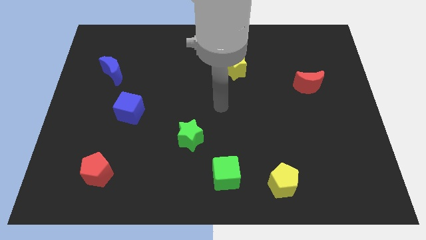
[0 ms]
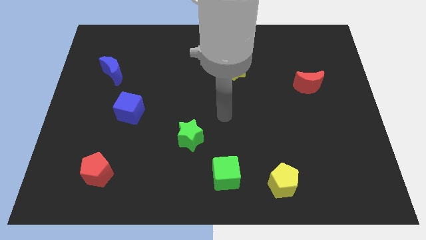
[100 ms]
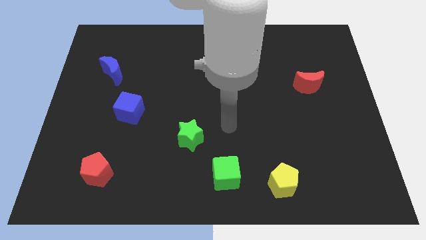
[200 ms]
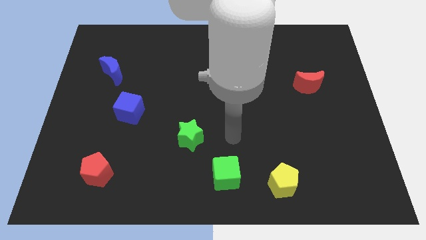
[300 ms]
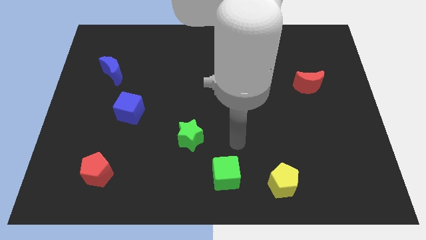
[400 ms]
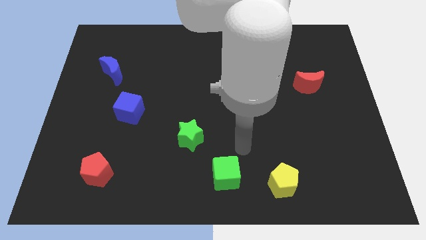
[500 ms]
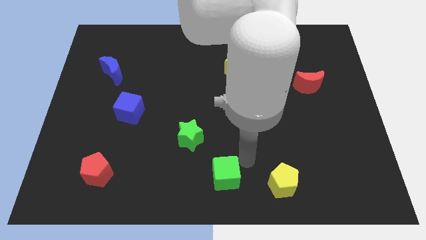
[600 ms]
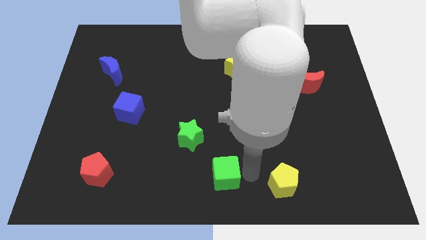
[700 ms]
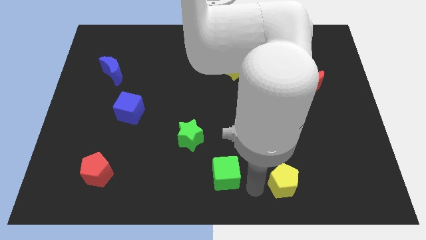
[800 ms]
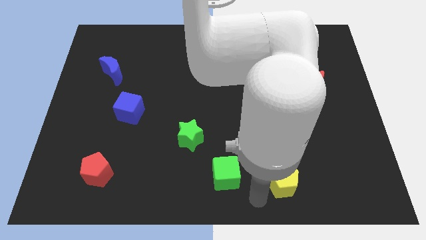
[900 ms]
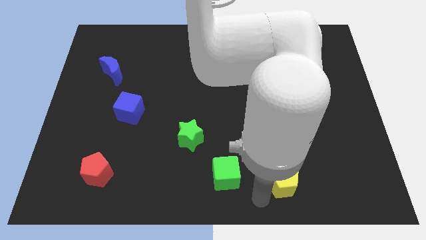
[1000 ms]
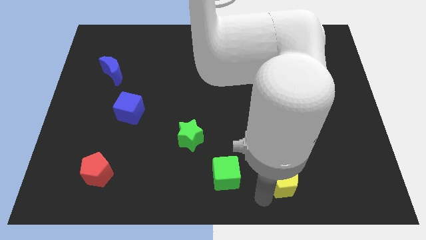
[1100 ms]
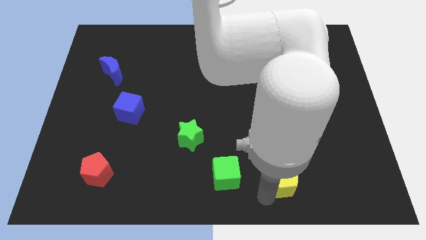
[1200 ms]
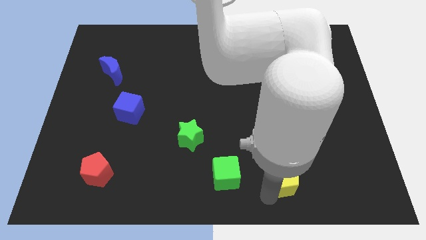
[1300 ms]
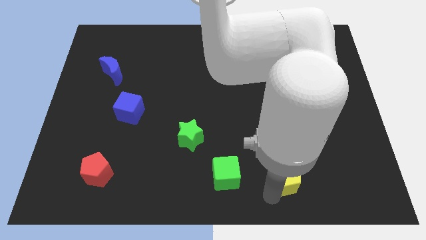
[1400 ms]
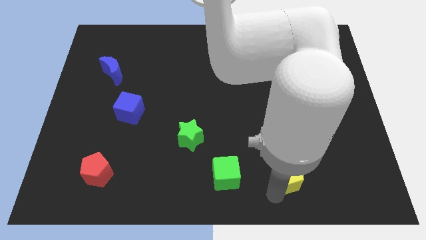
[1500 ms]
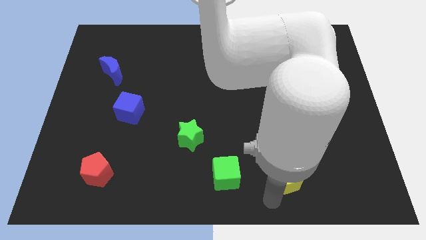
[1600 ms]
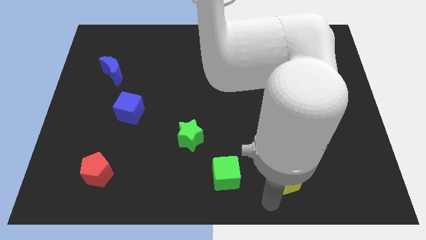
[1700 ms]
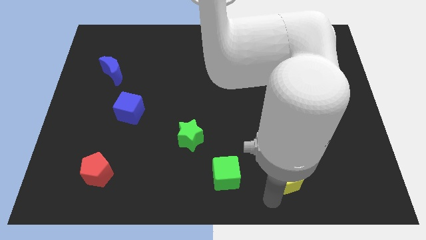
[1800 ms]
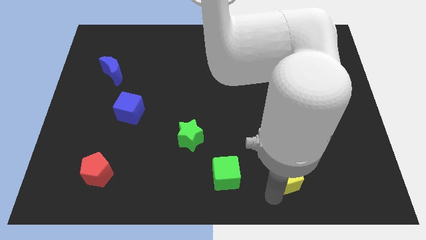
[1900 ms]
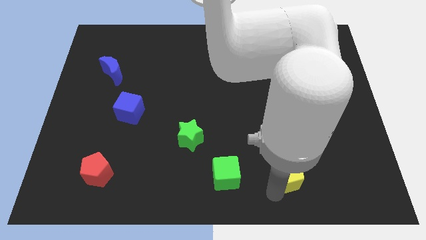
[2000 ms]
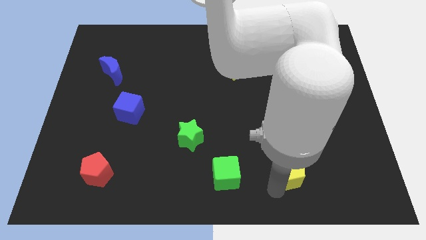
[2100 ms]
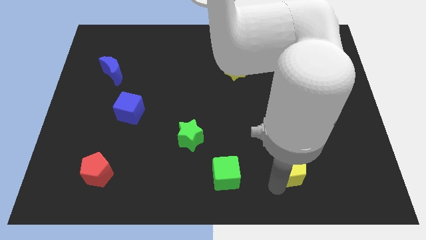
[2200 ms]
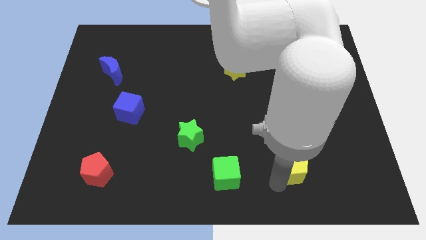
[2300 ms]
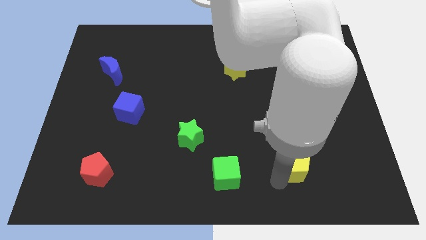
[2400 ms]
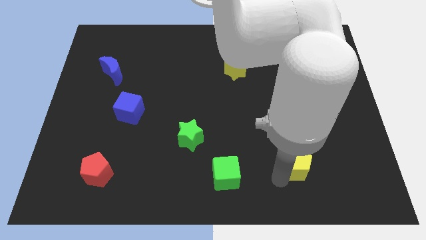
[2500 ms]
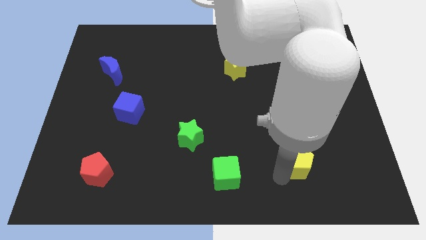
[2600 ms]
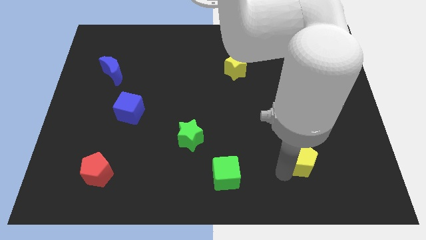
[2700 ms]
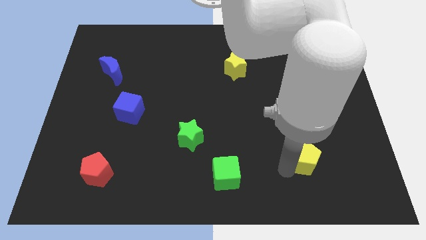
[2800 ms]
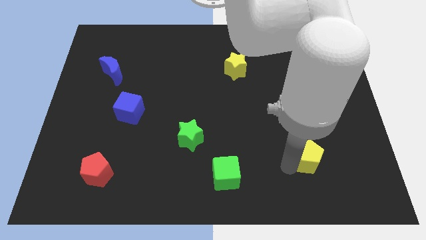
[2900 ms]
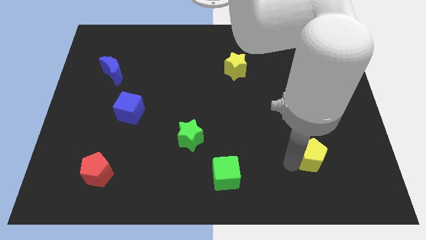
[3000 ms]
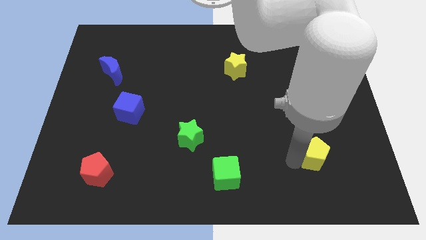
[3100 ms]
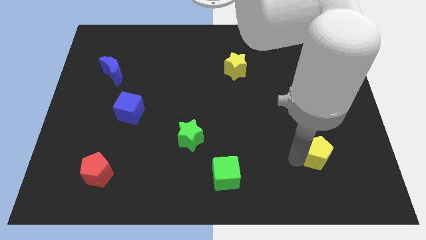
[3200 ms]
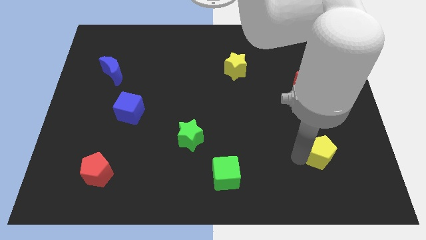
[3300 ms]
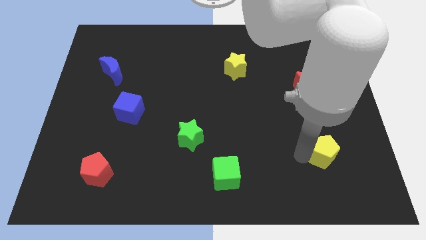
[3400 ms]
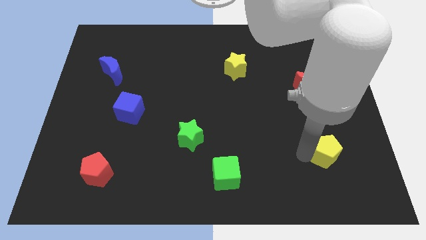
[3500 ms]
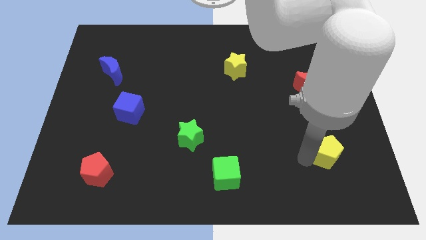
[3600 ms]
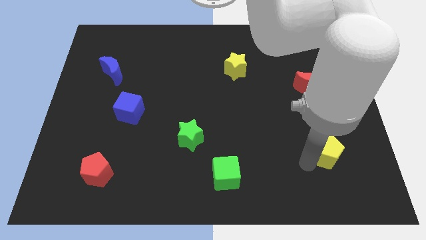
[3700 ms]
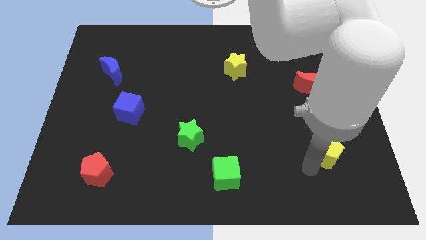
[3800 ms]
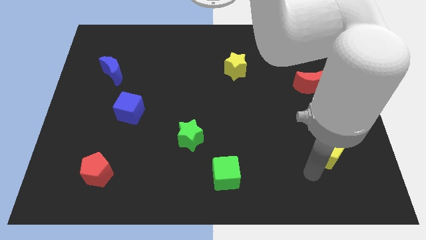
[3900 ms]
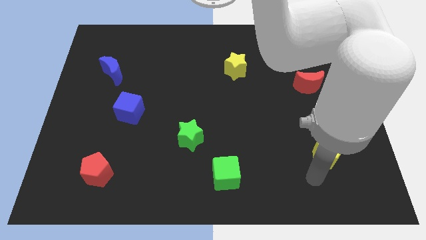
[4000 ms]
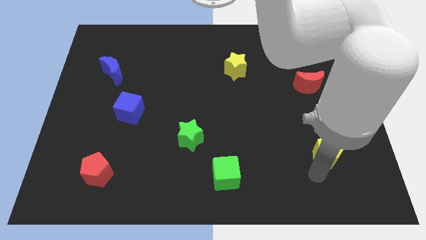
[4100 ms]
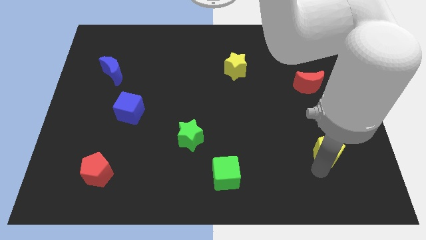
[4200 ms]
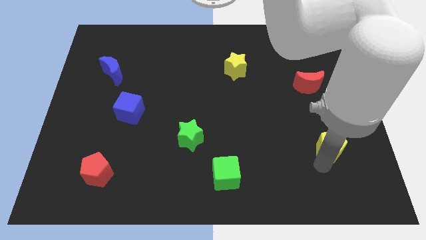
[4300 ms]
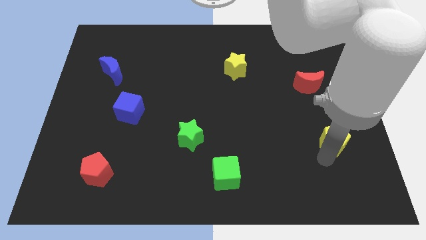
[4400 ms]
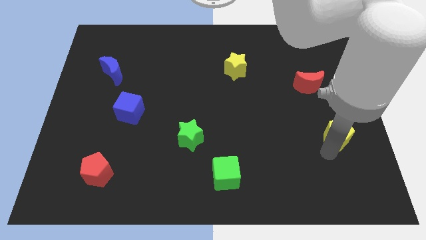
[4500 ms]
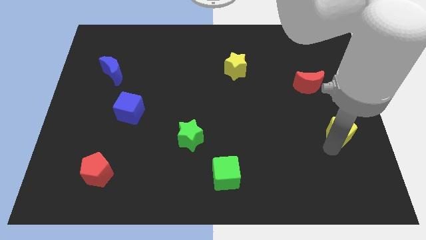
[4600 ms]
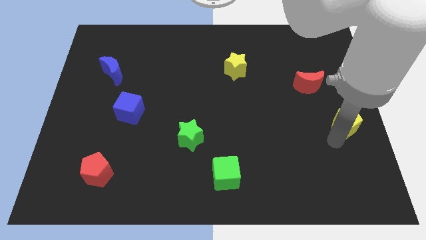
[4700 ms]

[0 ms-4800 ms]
push the yellow pentagon to the right side

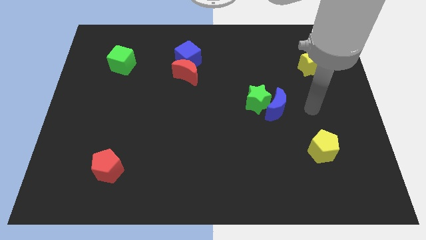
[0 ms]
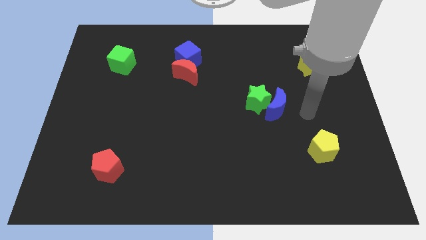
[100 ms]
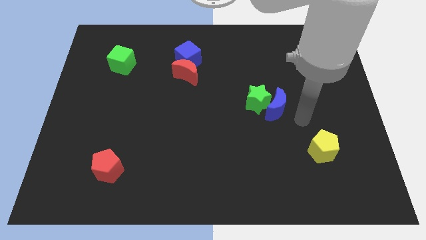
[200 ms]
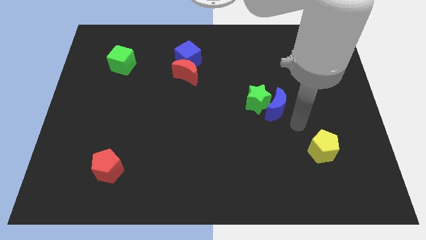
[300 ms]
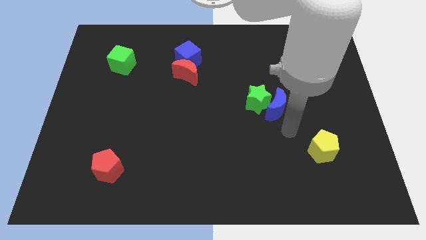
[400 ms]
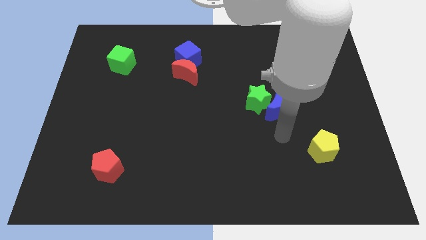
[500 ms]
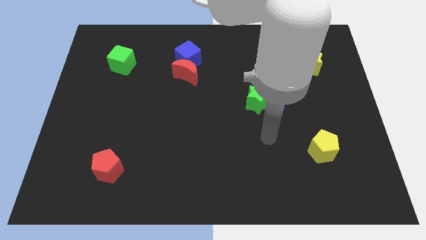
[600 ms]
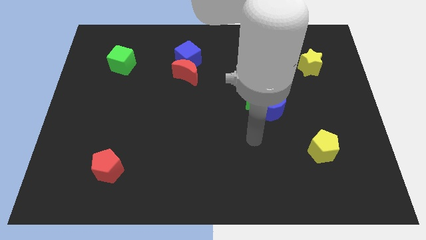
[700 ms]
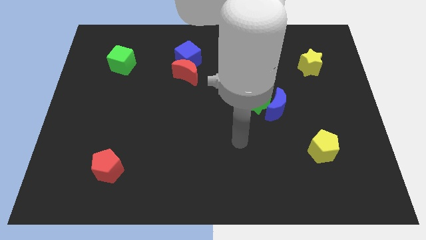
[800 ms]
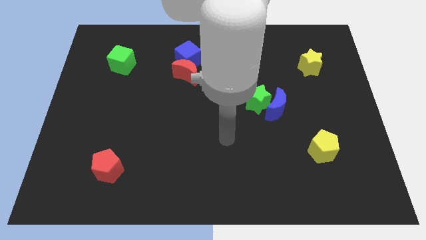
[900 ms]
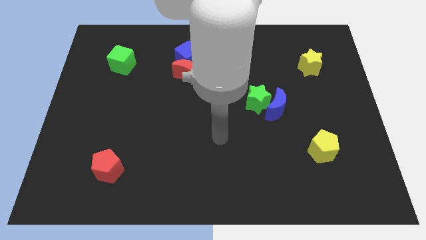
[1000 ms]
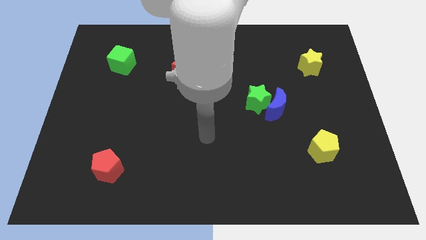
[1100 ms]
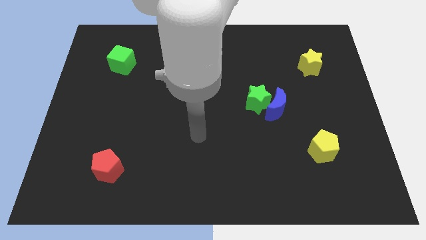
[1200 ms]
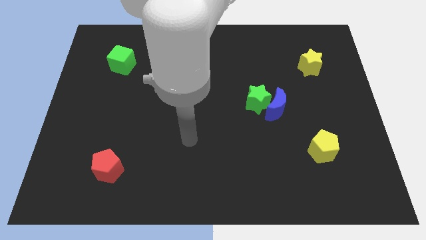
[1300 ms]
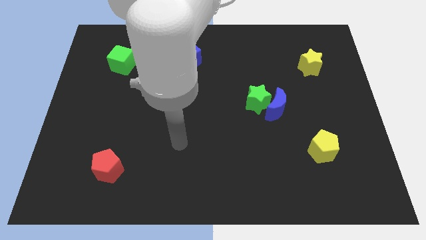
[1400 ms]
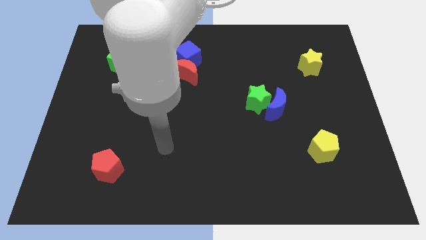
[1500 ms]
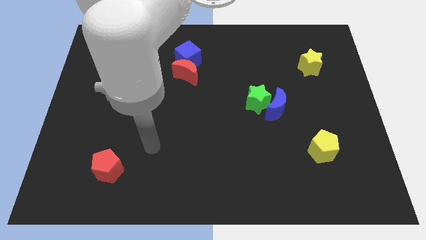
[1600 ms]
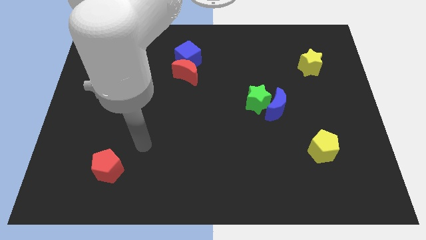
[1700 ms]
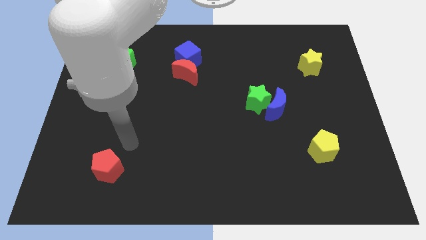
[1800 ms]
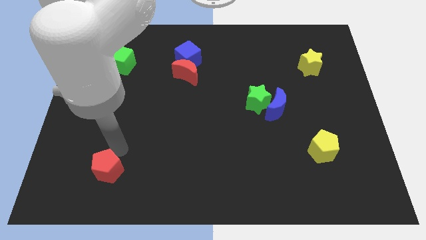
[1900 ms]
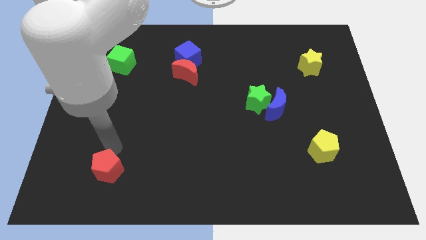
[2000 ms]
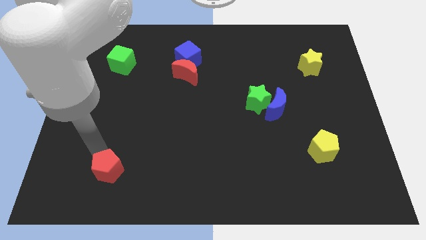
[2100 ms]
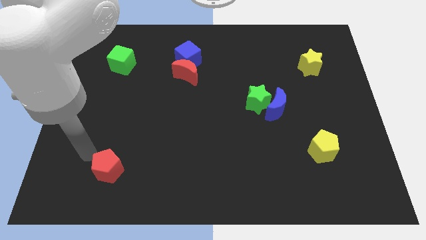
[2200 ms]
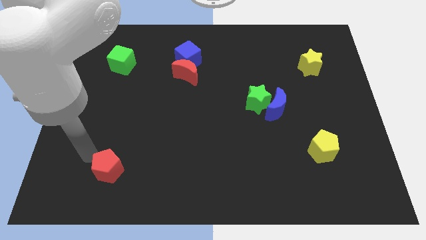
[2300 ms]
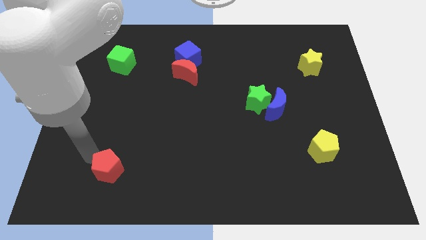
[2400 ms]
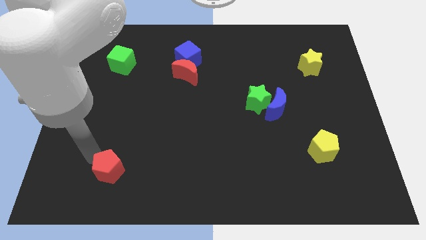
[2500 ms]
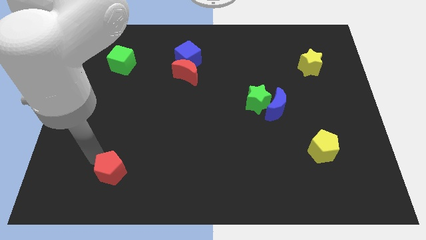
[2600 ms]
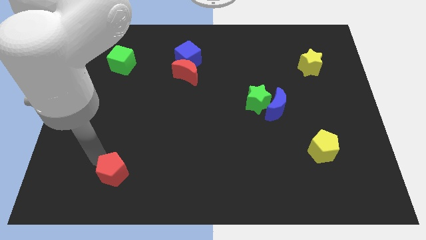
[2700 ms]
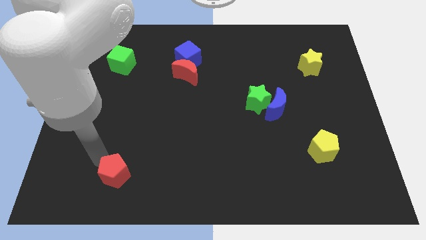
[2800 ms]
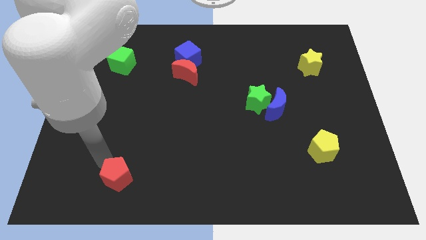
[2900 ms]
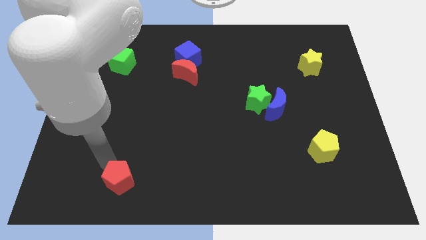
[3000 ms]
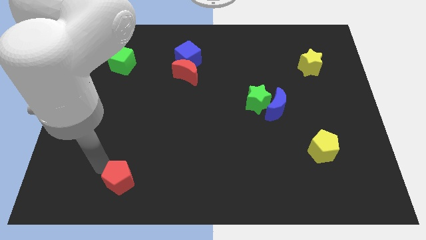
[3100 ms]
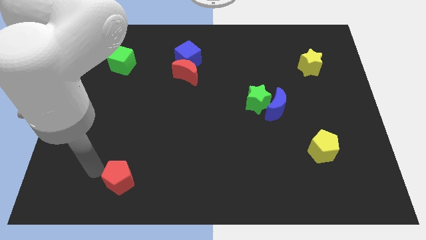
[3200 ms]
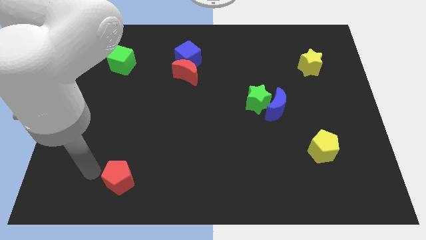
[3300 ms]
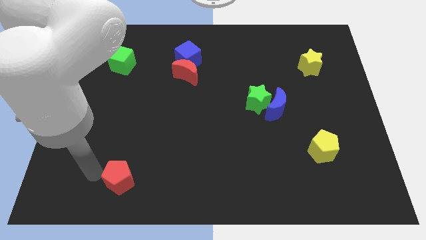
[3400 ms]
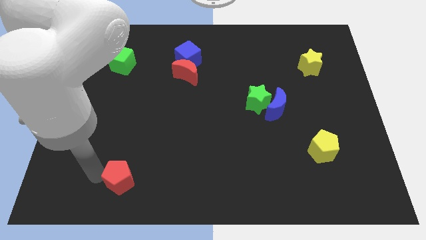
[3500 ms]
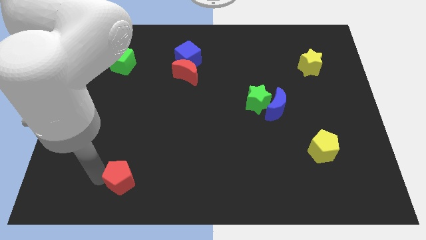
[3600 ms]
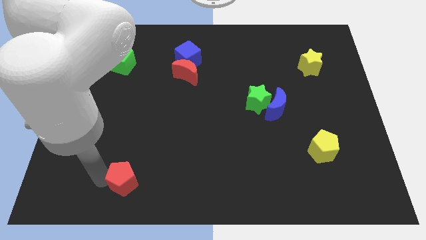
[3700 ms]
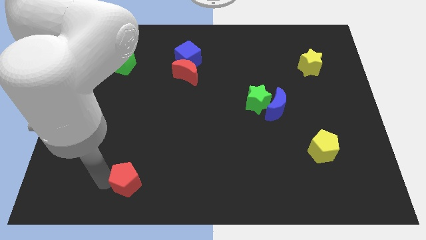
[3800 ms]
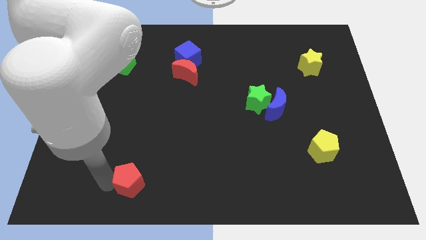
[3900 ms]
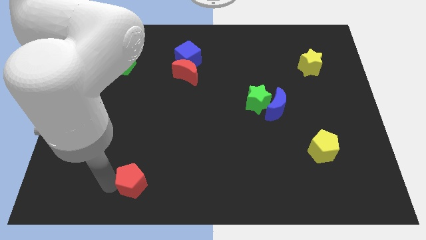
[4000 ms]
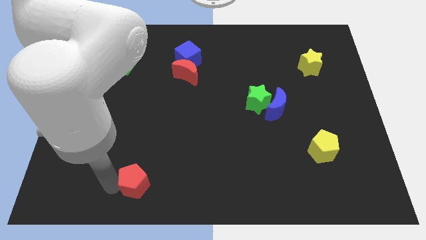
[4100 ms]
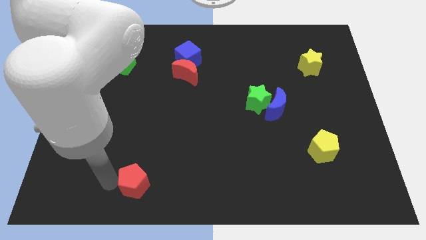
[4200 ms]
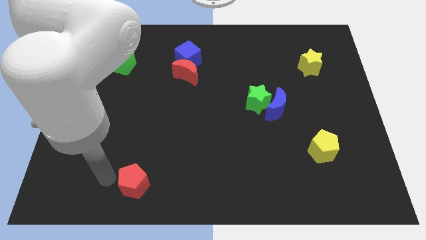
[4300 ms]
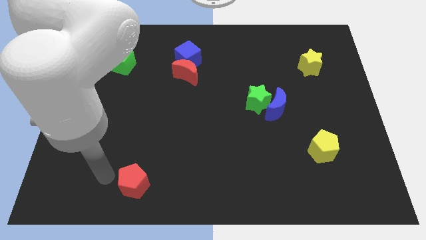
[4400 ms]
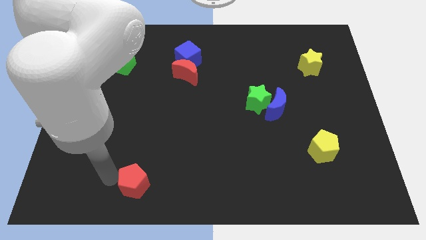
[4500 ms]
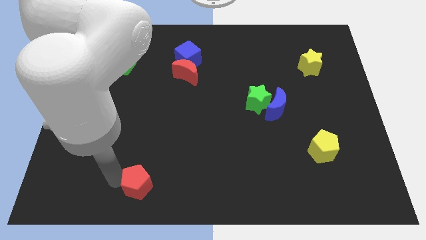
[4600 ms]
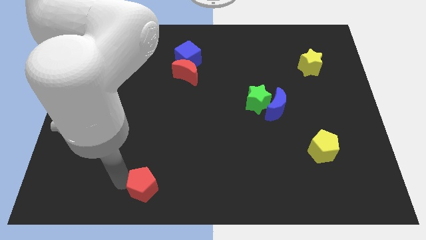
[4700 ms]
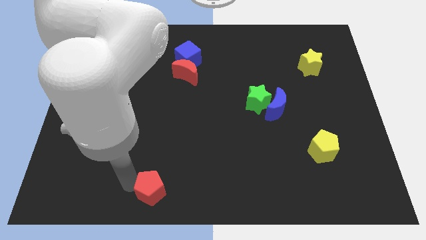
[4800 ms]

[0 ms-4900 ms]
push the red pentagon to the bottom
